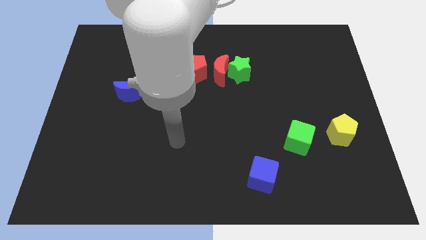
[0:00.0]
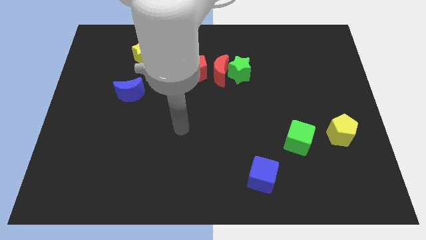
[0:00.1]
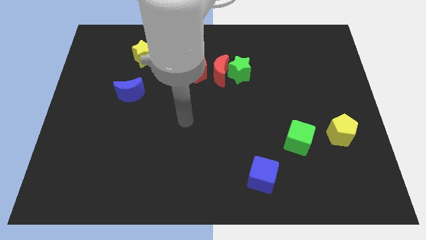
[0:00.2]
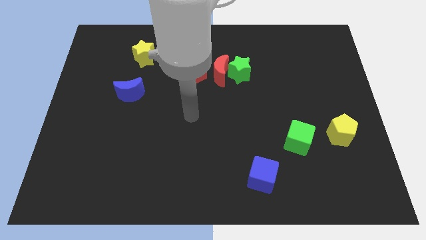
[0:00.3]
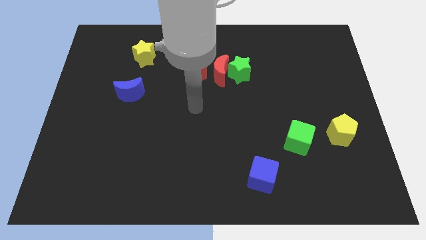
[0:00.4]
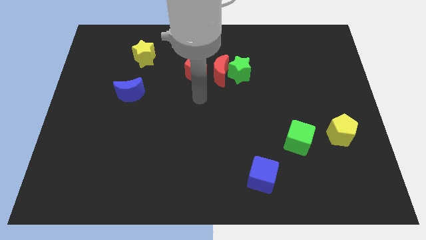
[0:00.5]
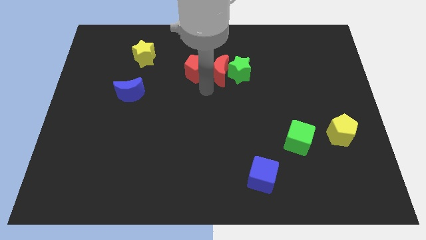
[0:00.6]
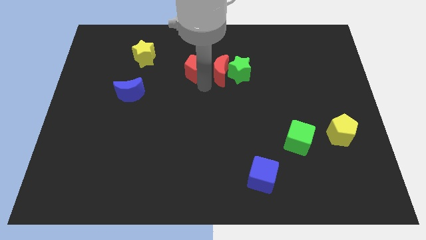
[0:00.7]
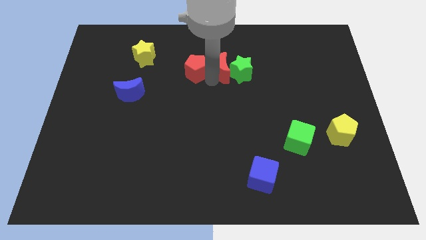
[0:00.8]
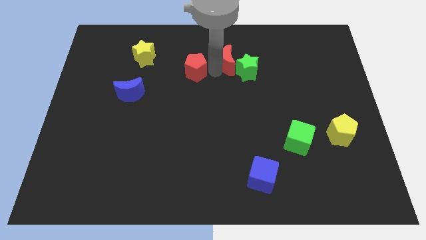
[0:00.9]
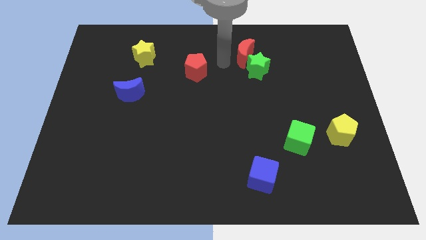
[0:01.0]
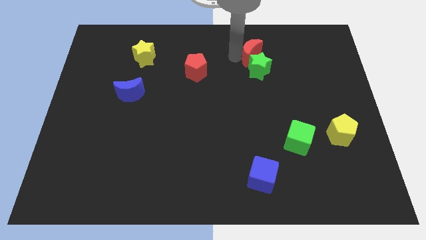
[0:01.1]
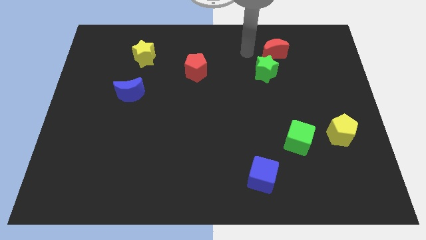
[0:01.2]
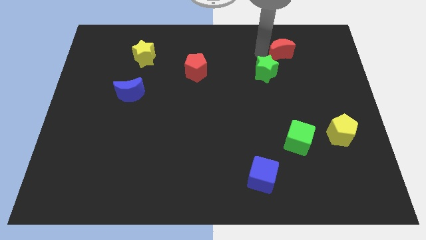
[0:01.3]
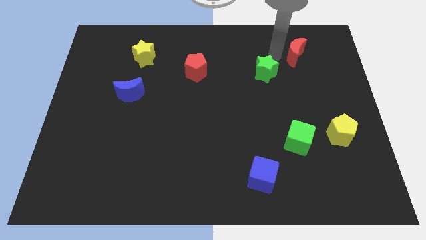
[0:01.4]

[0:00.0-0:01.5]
move the green star away from the red moon

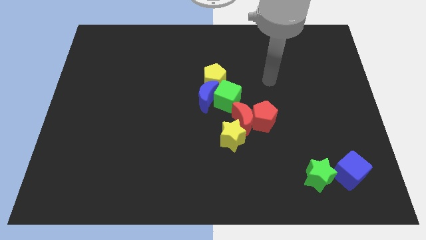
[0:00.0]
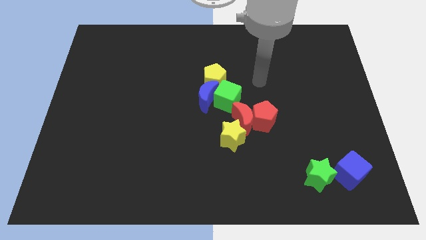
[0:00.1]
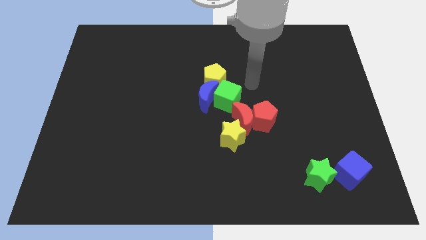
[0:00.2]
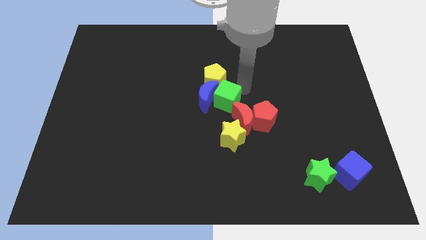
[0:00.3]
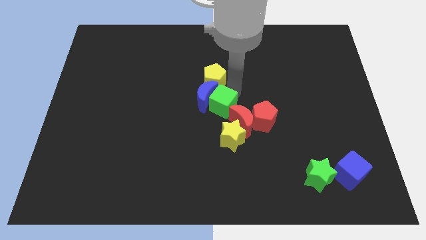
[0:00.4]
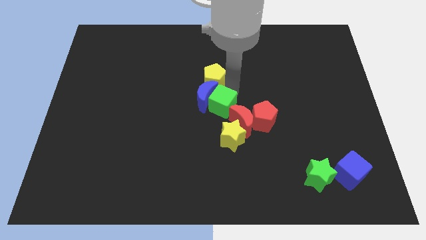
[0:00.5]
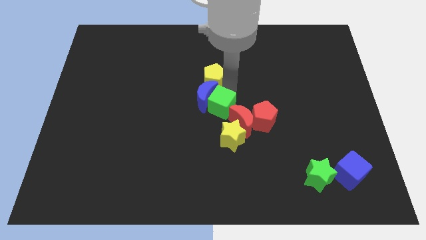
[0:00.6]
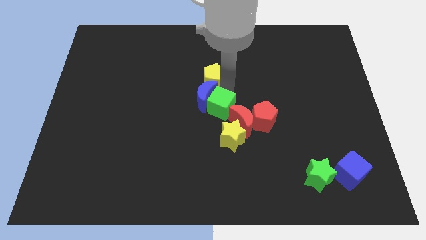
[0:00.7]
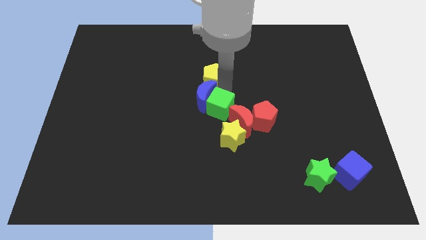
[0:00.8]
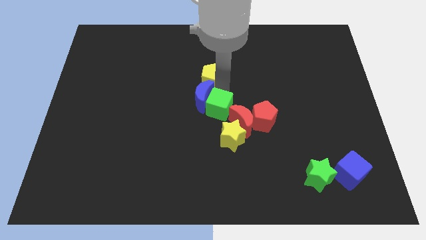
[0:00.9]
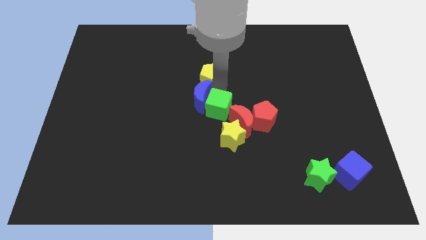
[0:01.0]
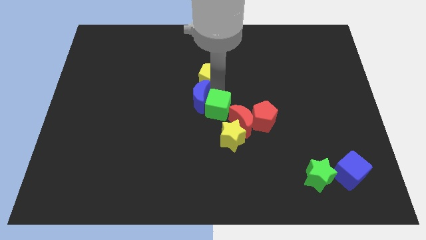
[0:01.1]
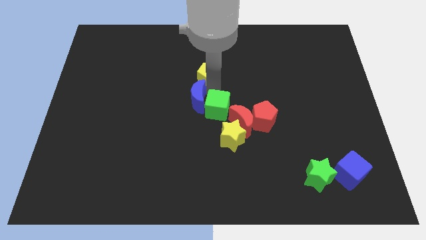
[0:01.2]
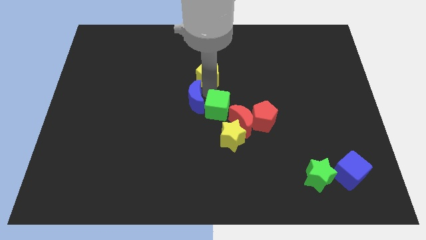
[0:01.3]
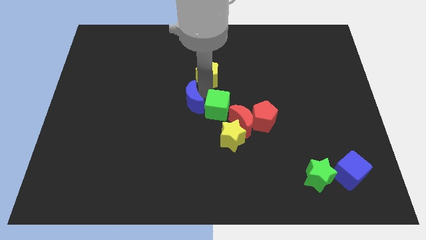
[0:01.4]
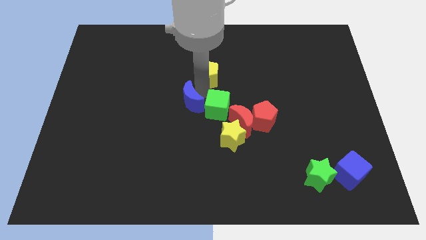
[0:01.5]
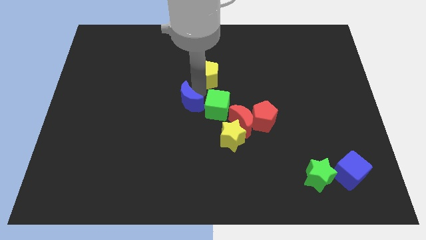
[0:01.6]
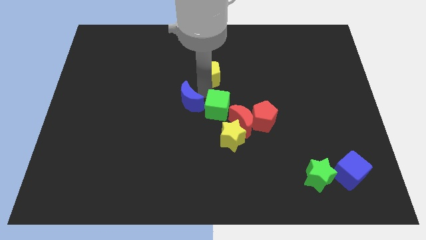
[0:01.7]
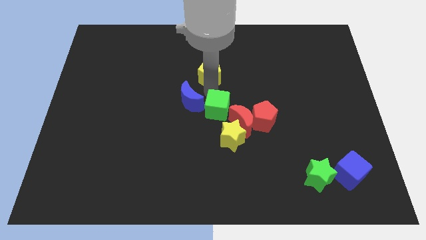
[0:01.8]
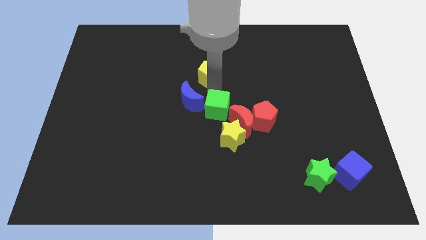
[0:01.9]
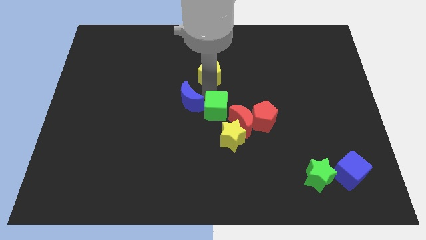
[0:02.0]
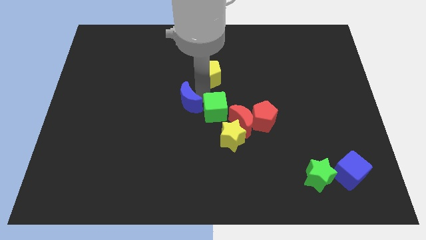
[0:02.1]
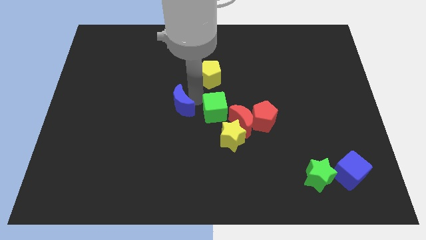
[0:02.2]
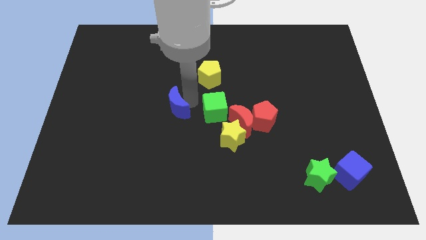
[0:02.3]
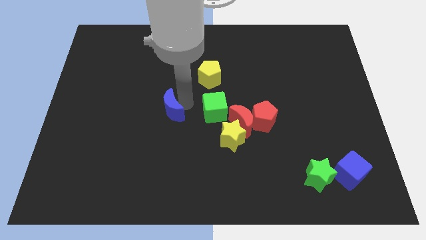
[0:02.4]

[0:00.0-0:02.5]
separate the blue moon from the green cube and yellow pentagon

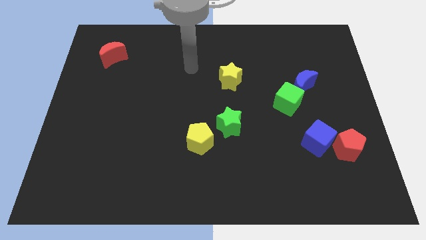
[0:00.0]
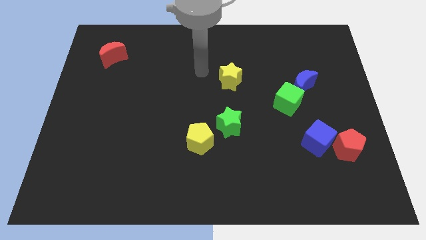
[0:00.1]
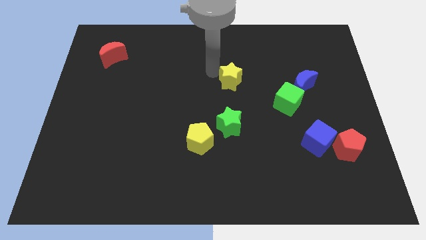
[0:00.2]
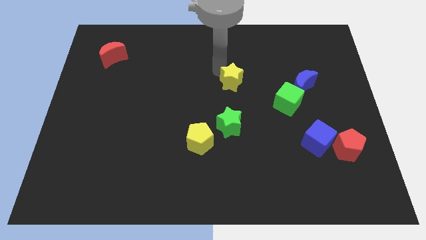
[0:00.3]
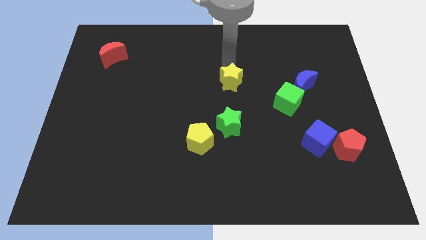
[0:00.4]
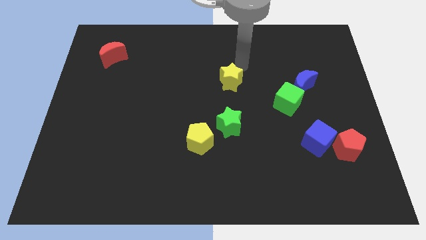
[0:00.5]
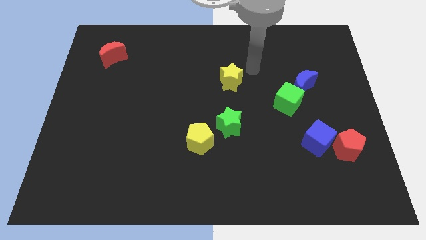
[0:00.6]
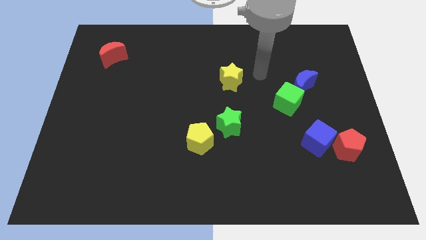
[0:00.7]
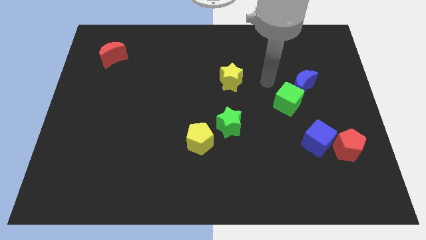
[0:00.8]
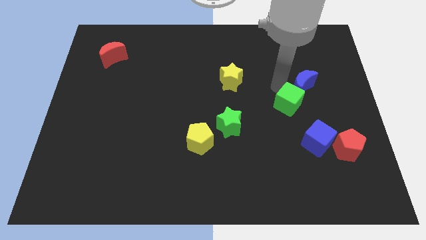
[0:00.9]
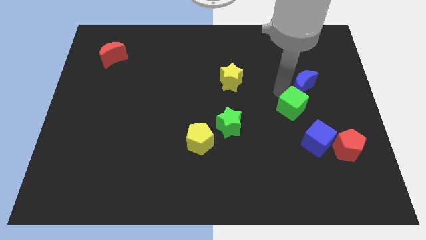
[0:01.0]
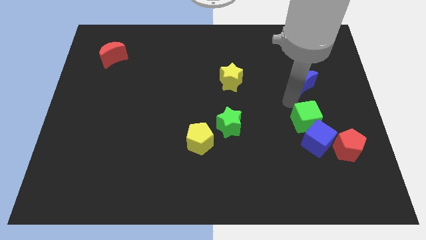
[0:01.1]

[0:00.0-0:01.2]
pull the blue moon apart from the green cube

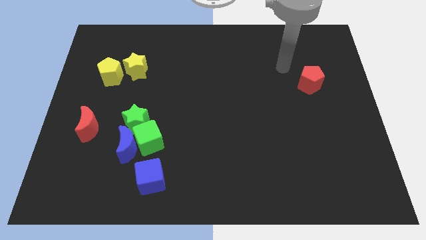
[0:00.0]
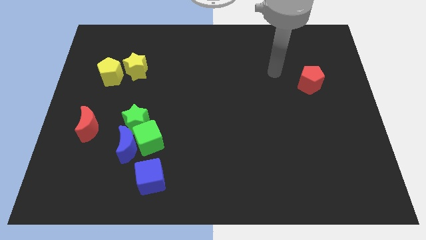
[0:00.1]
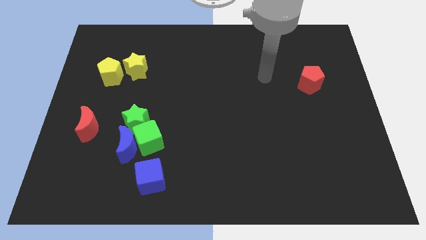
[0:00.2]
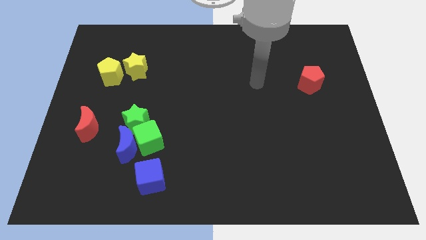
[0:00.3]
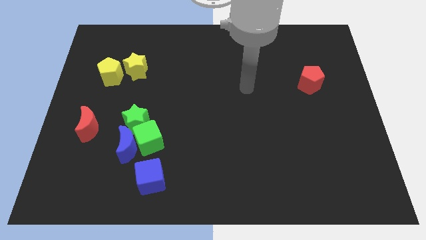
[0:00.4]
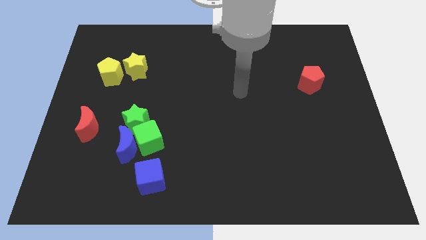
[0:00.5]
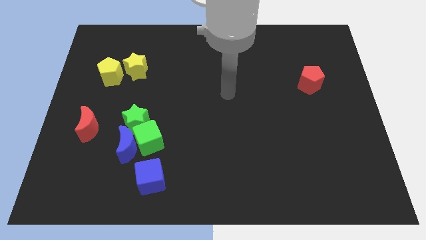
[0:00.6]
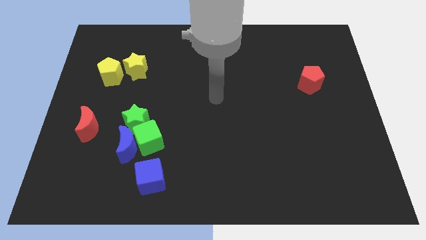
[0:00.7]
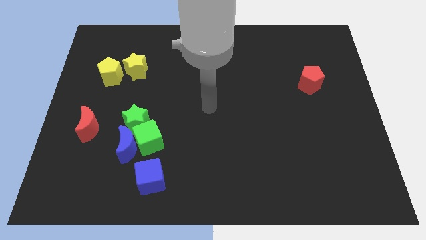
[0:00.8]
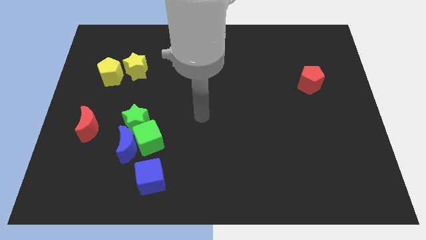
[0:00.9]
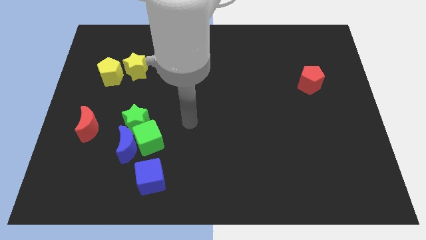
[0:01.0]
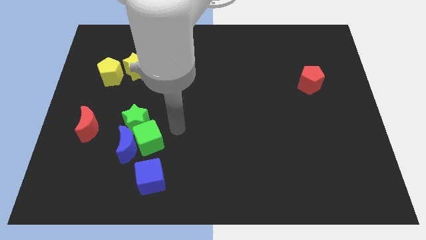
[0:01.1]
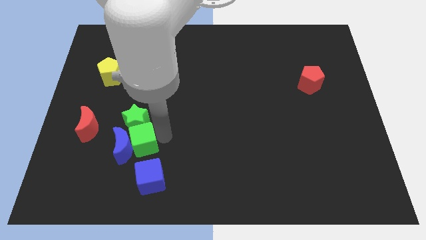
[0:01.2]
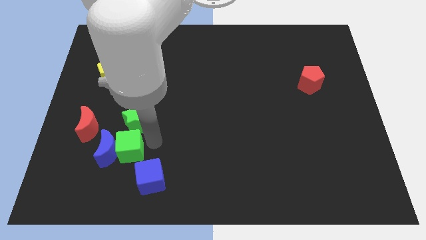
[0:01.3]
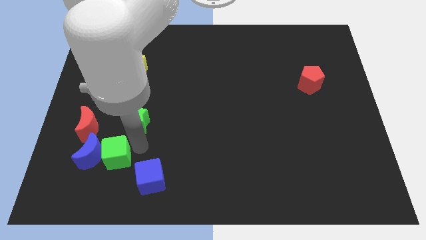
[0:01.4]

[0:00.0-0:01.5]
pull the green star apart from the green cube and blue moon

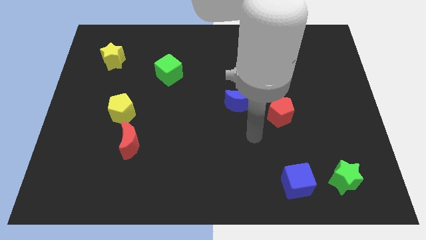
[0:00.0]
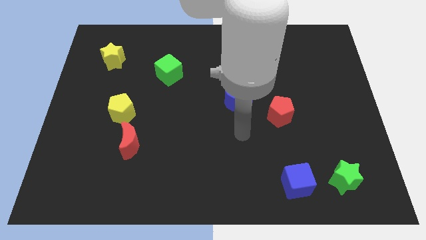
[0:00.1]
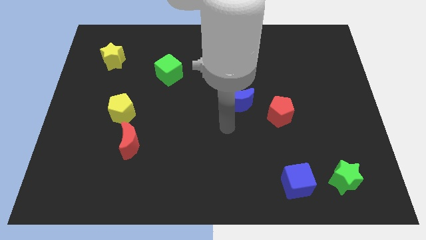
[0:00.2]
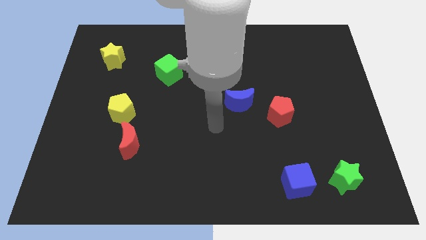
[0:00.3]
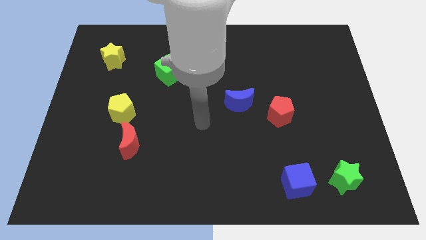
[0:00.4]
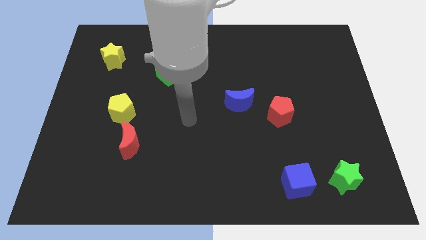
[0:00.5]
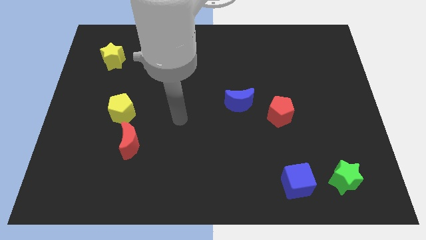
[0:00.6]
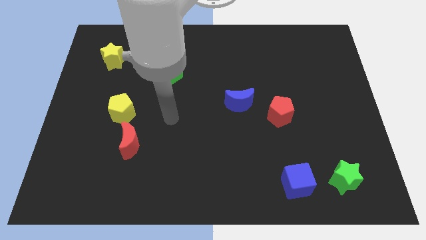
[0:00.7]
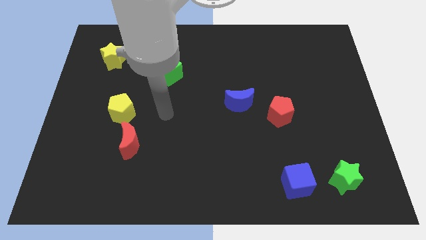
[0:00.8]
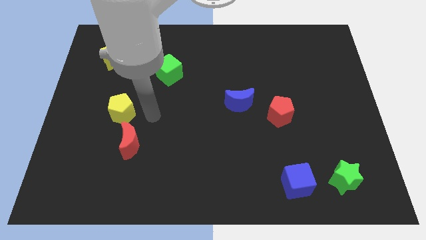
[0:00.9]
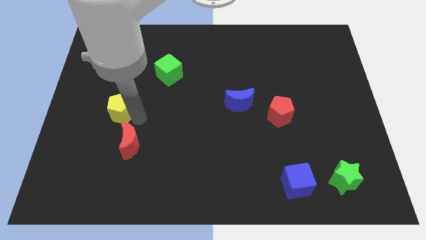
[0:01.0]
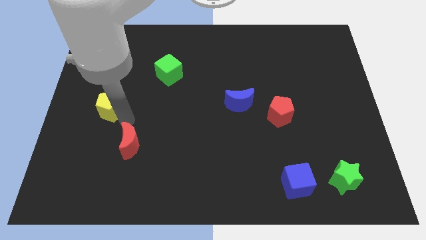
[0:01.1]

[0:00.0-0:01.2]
separate the red moon from the yellow pentagon

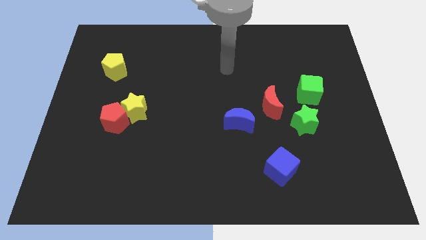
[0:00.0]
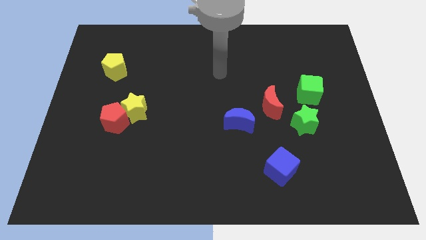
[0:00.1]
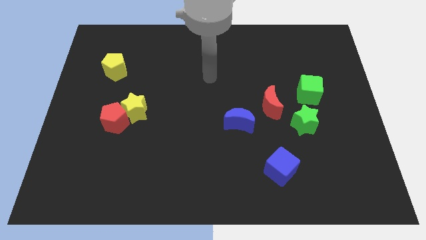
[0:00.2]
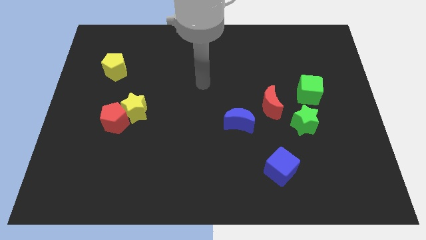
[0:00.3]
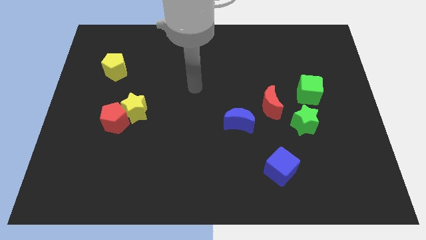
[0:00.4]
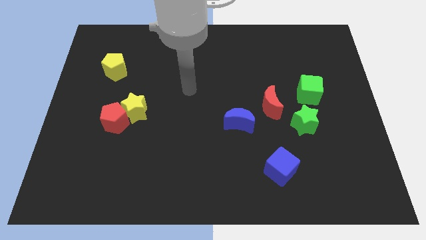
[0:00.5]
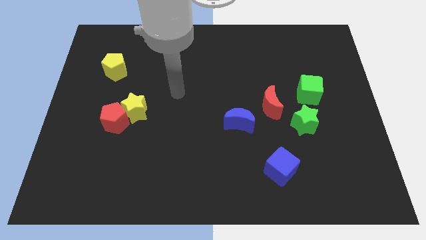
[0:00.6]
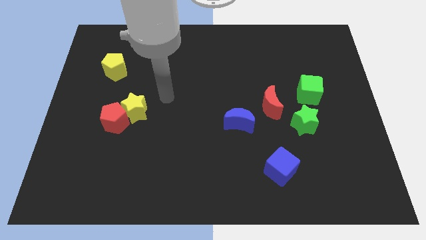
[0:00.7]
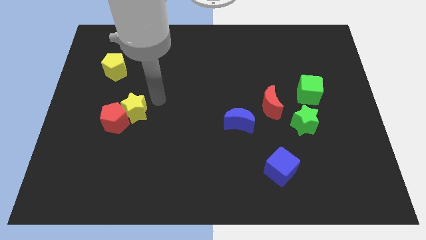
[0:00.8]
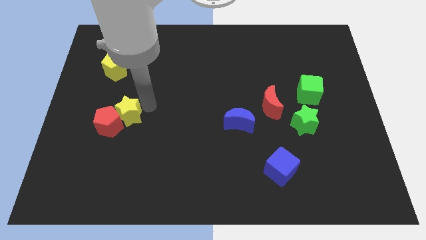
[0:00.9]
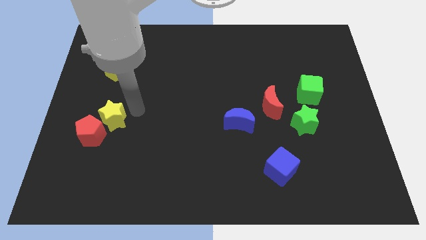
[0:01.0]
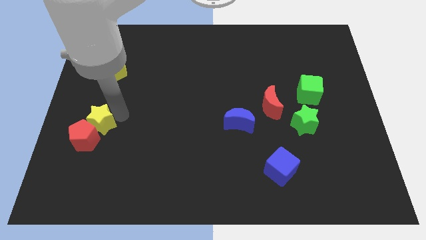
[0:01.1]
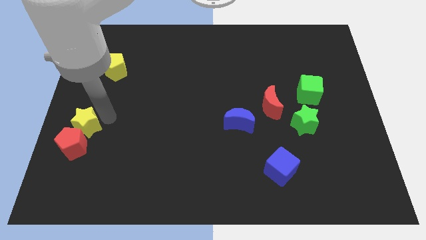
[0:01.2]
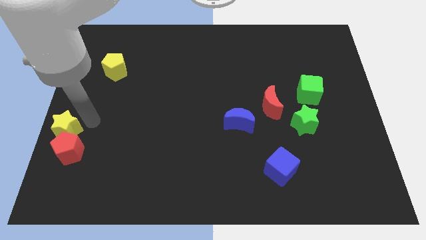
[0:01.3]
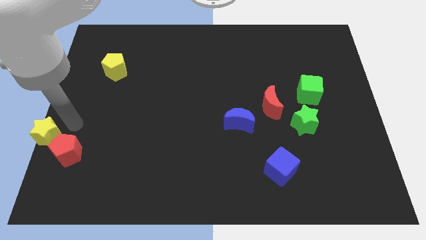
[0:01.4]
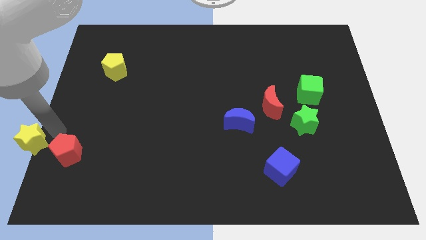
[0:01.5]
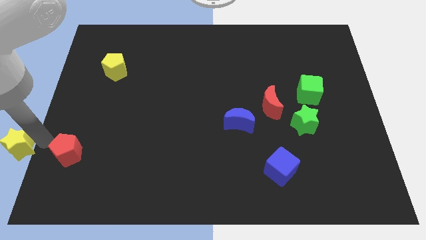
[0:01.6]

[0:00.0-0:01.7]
pull the red pentagon apart from the yellow star
